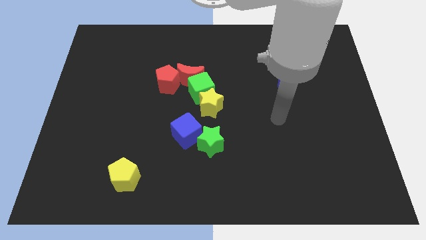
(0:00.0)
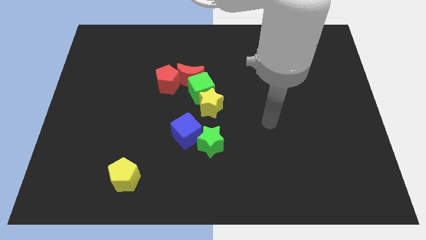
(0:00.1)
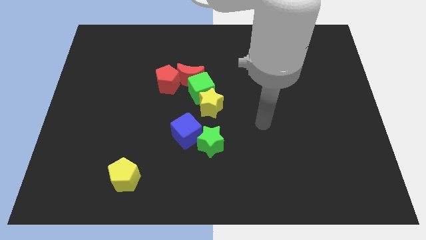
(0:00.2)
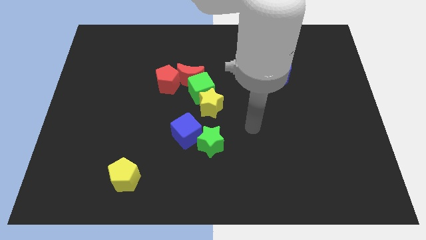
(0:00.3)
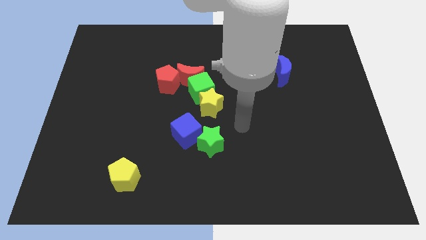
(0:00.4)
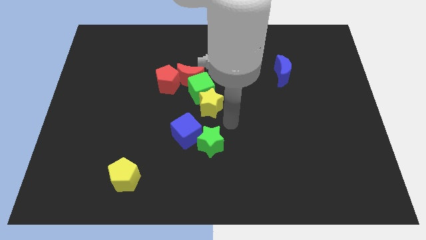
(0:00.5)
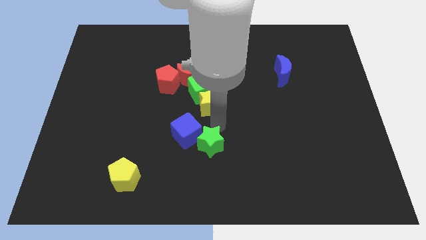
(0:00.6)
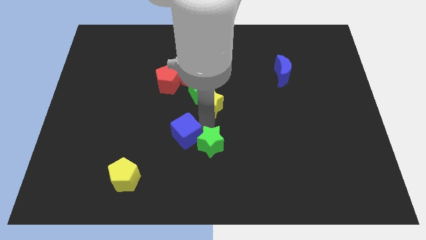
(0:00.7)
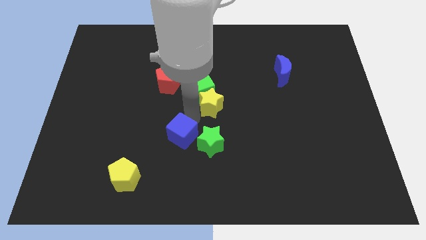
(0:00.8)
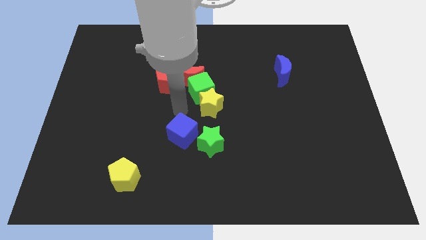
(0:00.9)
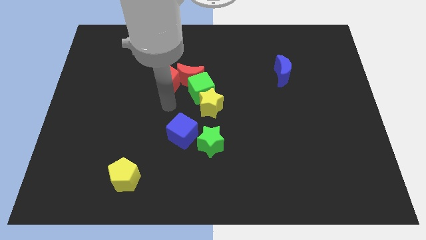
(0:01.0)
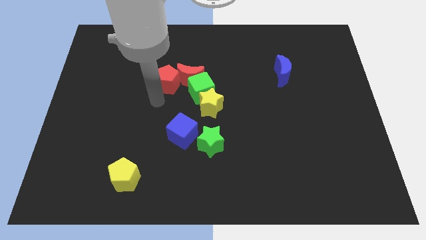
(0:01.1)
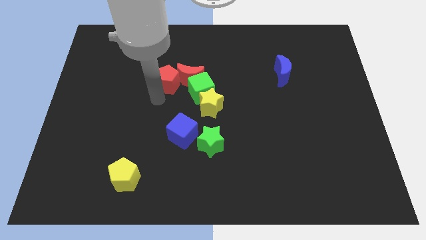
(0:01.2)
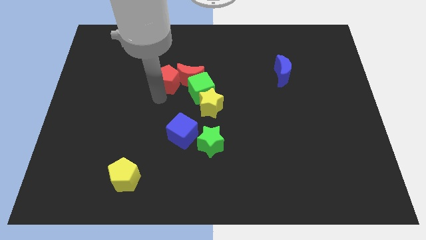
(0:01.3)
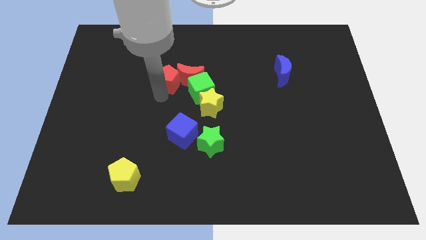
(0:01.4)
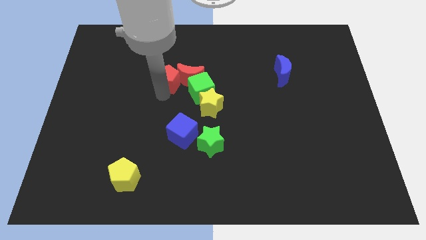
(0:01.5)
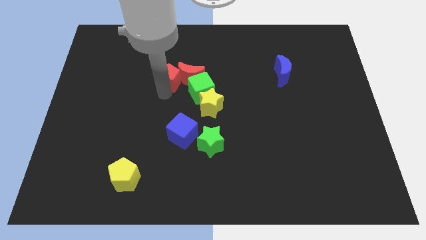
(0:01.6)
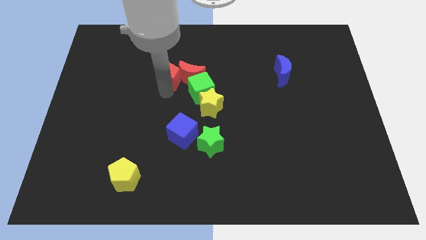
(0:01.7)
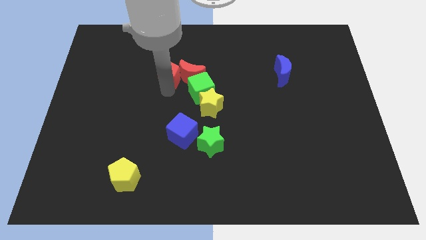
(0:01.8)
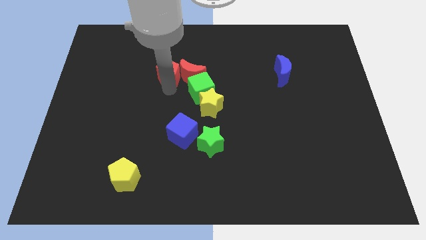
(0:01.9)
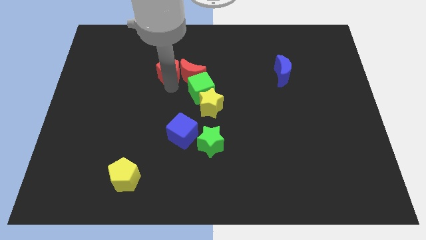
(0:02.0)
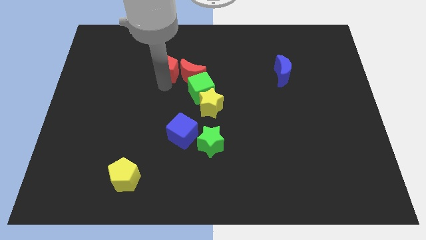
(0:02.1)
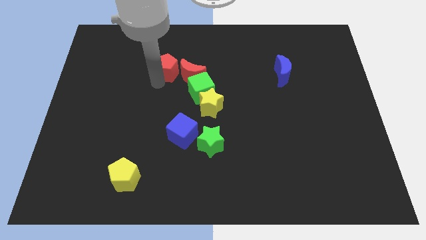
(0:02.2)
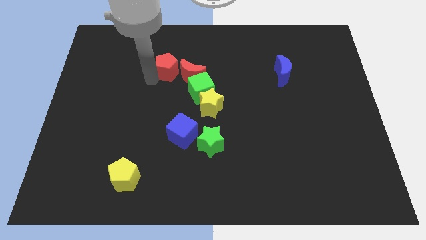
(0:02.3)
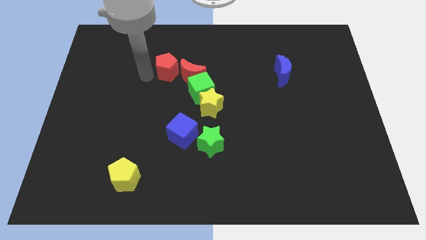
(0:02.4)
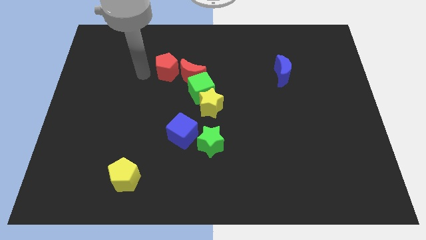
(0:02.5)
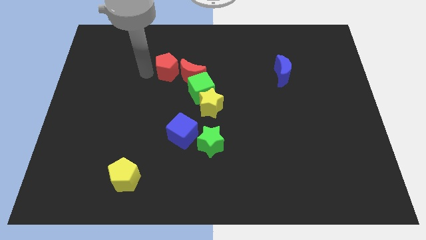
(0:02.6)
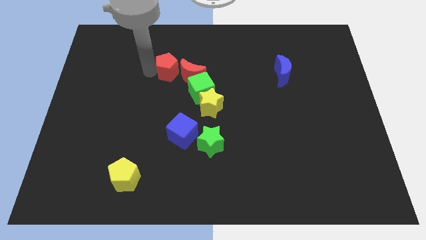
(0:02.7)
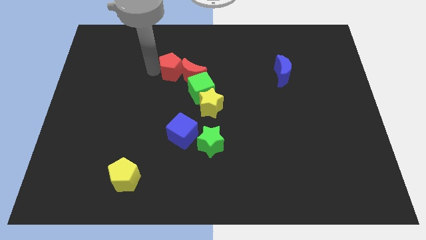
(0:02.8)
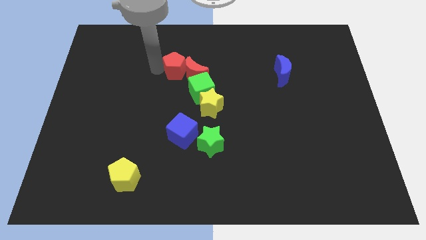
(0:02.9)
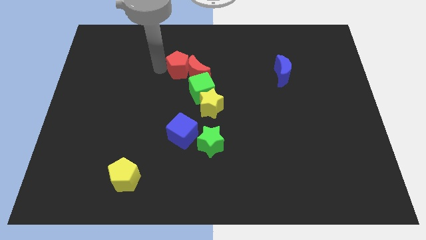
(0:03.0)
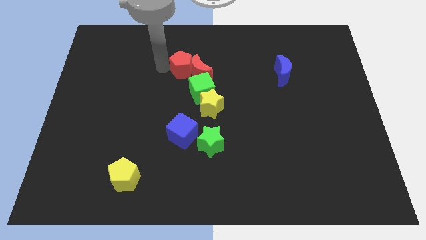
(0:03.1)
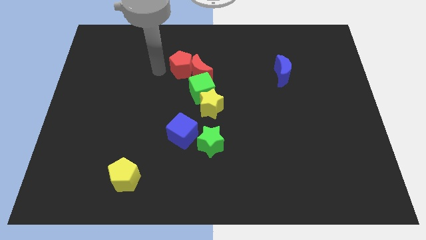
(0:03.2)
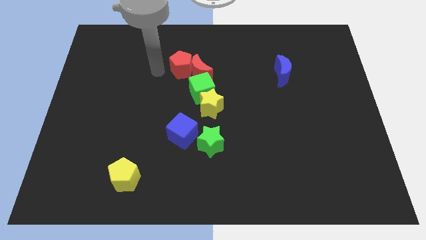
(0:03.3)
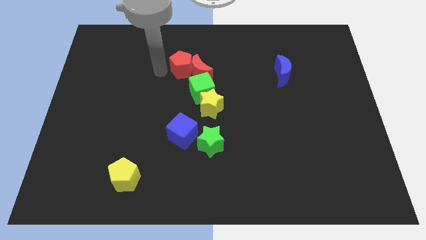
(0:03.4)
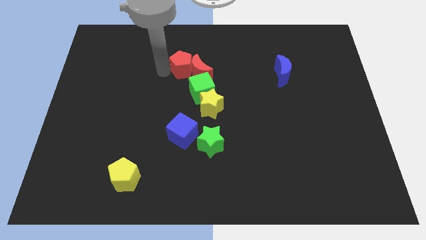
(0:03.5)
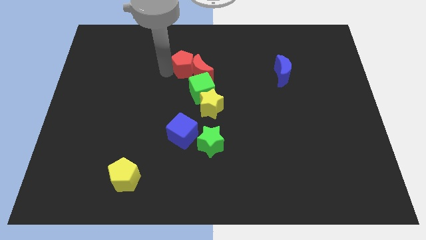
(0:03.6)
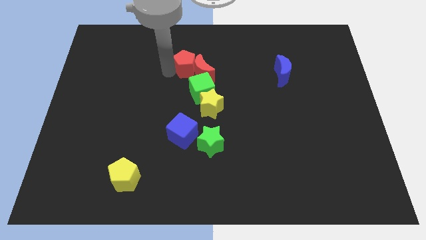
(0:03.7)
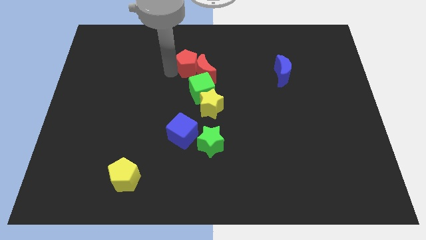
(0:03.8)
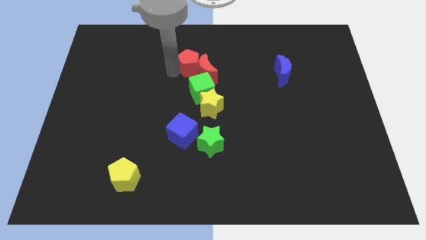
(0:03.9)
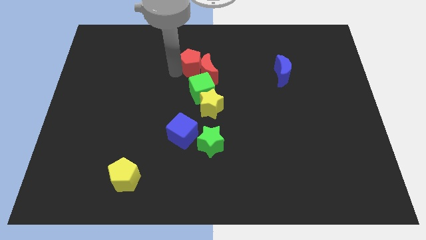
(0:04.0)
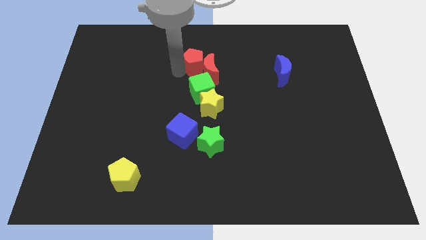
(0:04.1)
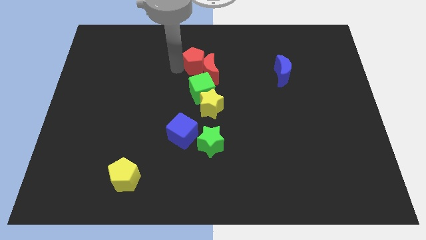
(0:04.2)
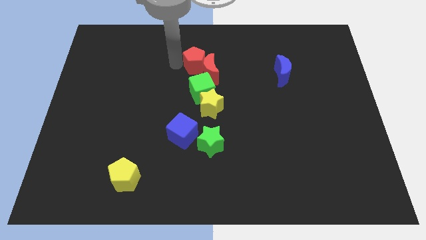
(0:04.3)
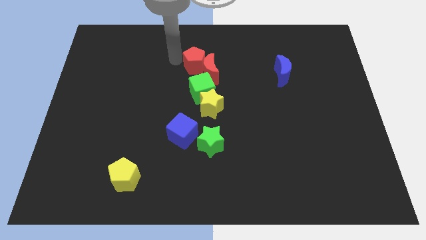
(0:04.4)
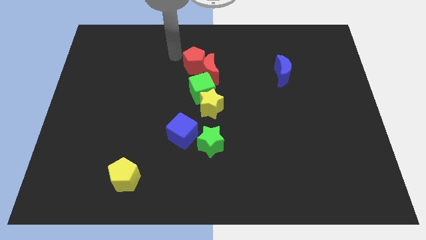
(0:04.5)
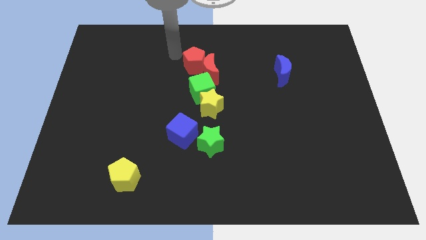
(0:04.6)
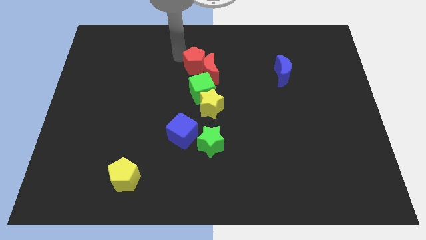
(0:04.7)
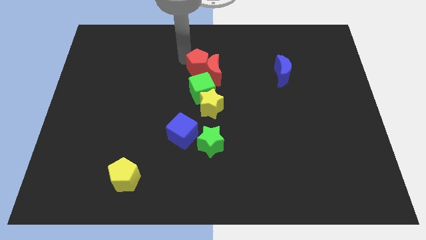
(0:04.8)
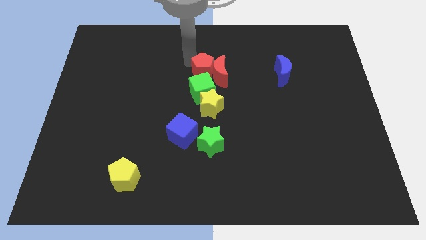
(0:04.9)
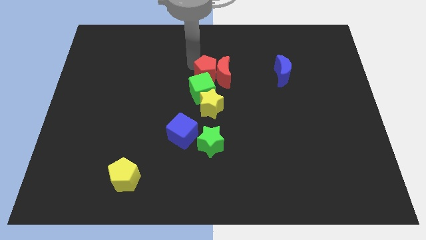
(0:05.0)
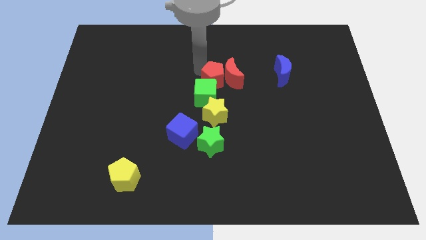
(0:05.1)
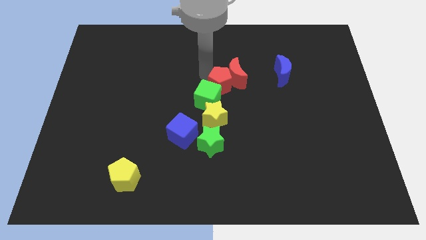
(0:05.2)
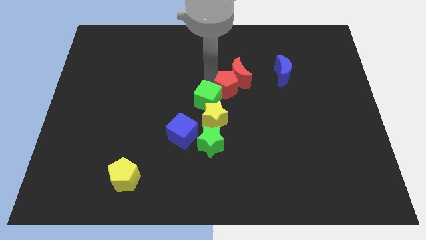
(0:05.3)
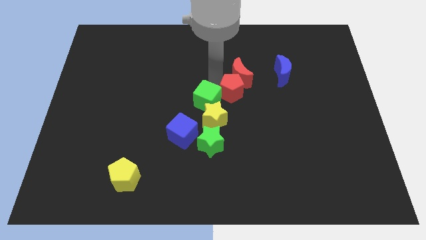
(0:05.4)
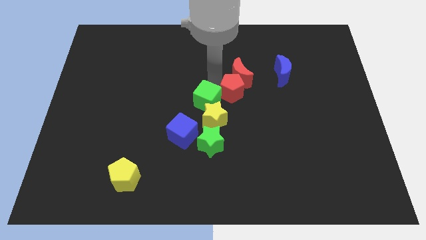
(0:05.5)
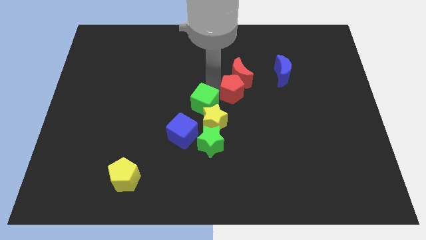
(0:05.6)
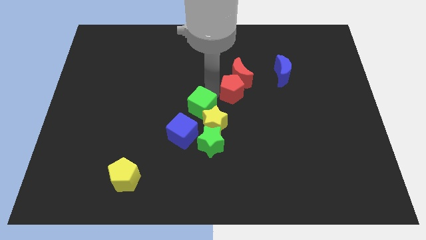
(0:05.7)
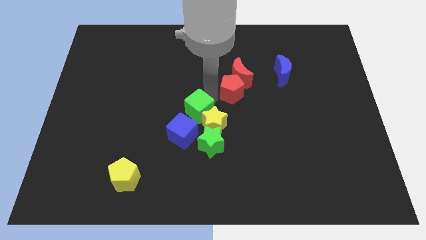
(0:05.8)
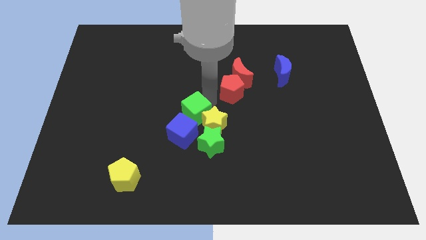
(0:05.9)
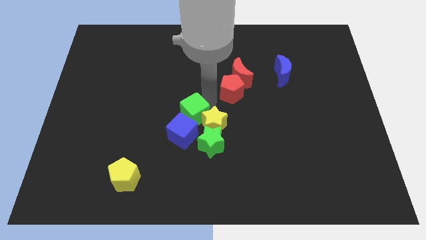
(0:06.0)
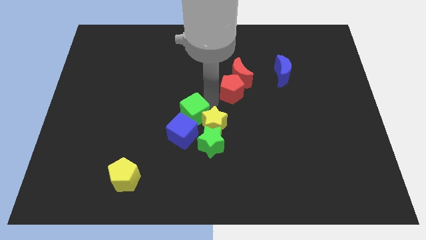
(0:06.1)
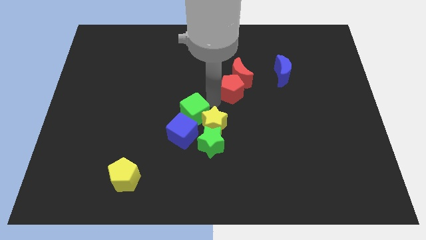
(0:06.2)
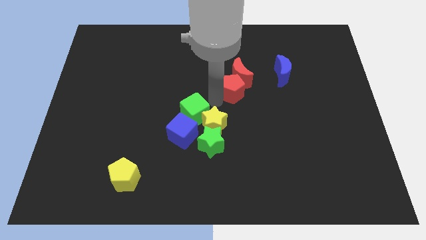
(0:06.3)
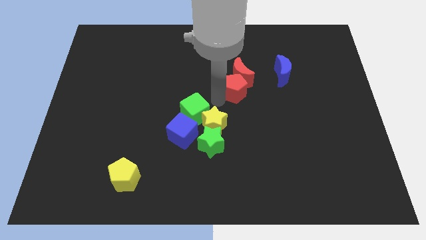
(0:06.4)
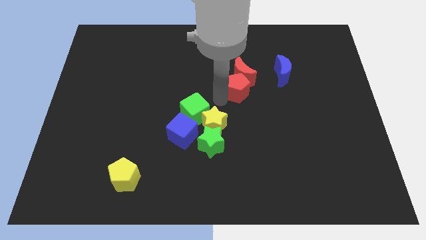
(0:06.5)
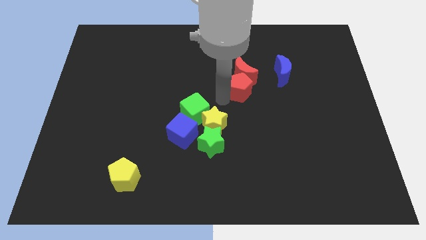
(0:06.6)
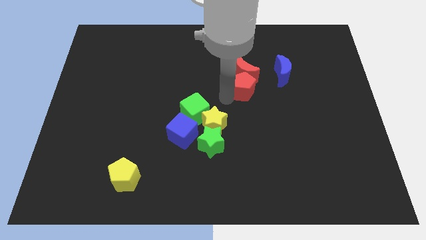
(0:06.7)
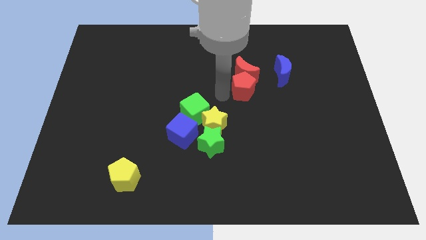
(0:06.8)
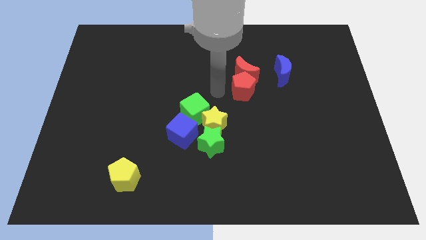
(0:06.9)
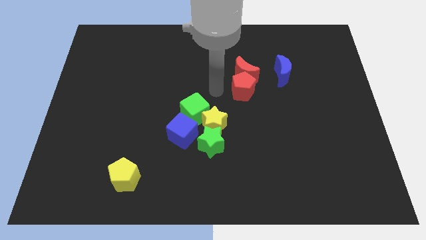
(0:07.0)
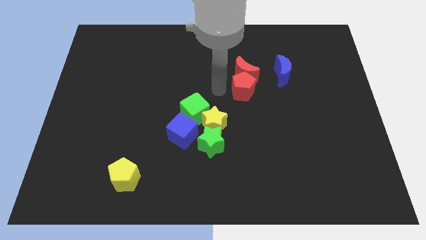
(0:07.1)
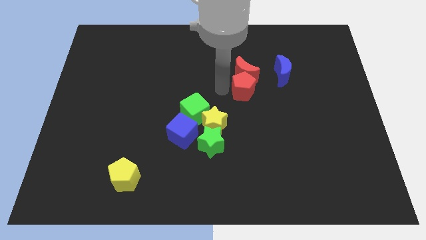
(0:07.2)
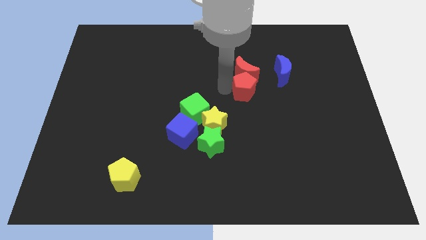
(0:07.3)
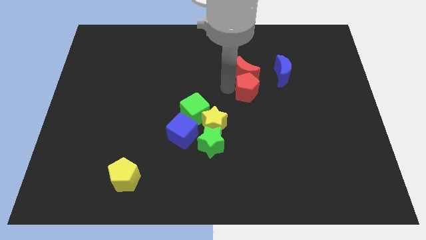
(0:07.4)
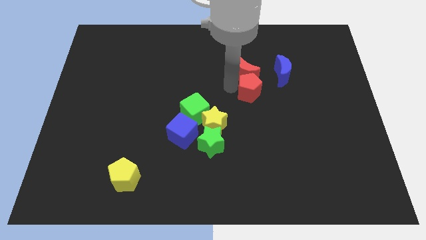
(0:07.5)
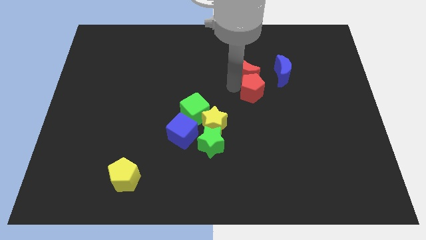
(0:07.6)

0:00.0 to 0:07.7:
push the red pentagon right

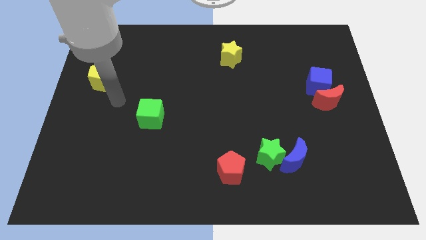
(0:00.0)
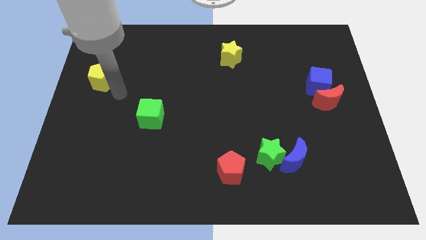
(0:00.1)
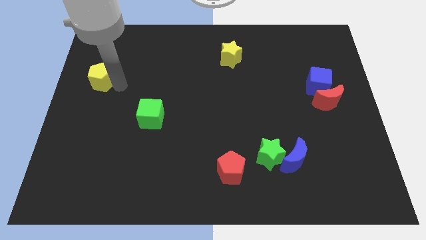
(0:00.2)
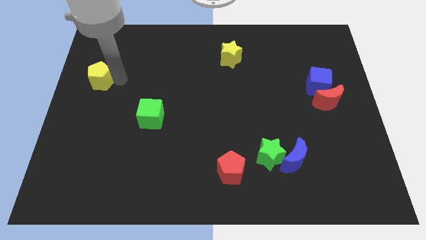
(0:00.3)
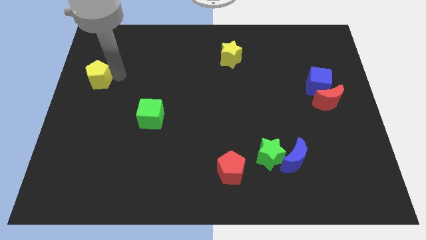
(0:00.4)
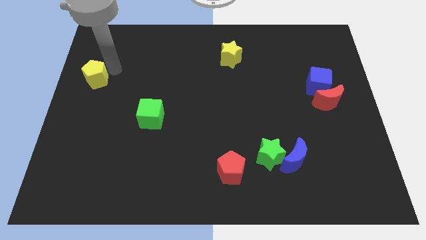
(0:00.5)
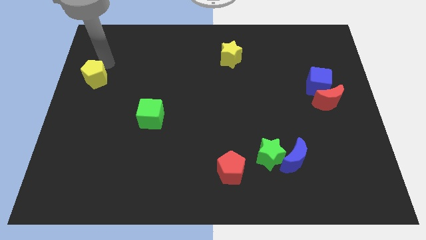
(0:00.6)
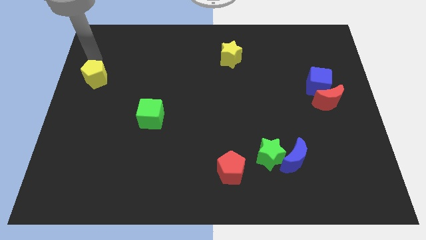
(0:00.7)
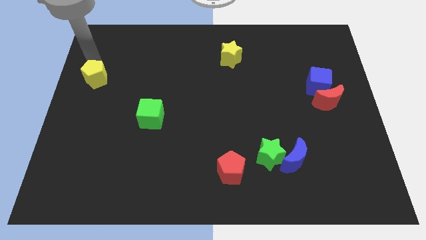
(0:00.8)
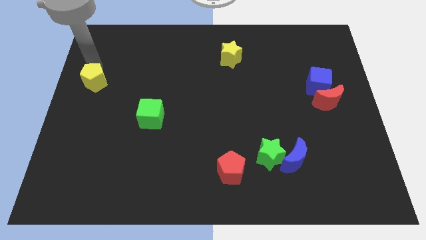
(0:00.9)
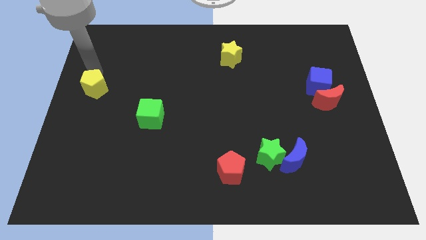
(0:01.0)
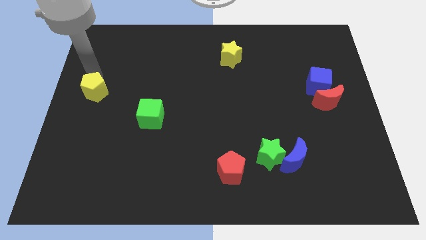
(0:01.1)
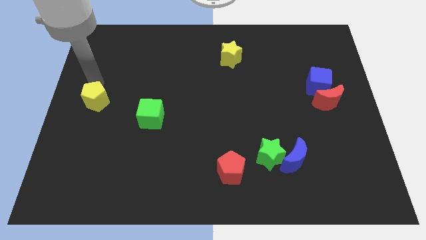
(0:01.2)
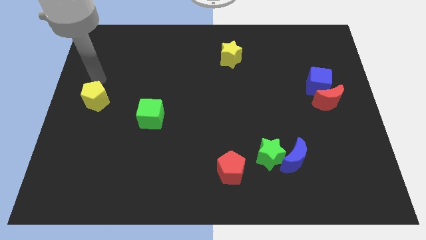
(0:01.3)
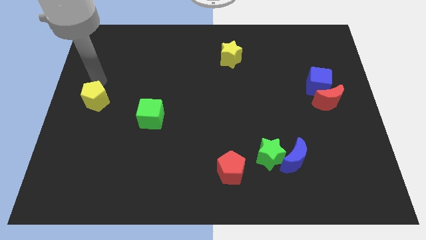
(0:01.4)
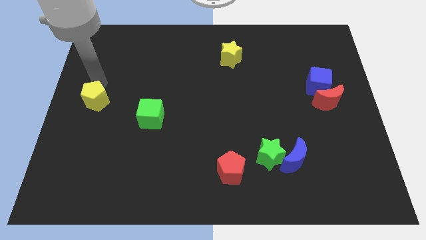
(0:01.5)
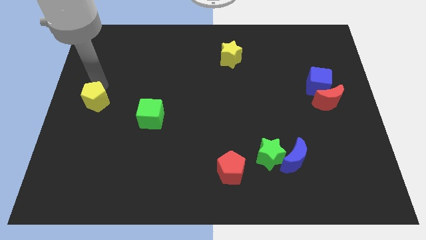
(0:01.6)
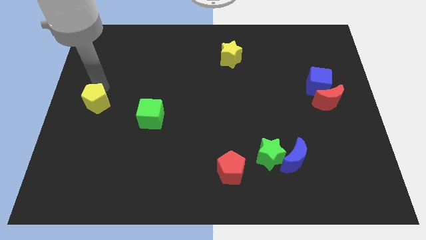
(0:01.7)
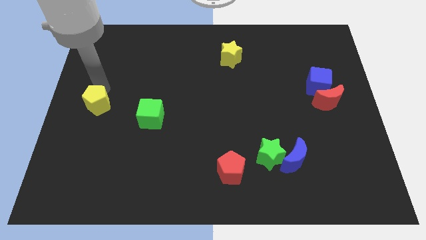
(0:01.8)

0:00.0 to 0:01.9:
move the yellow pentagon down slightly
